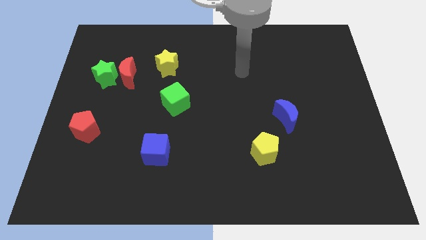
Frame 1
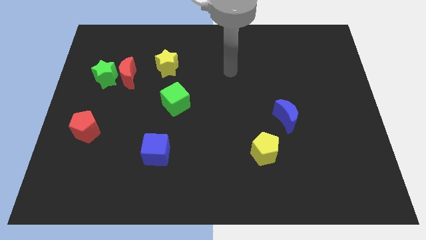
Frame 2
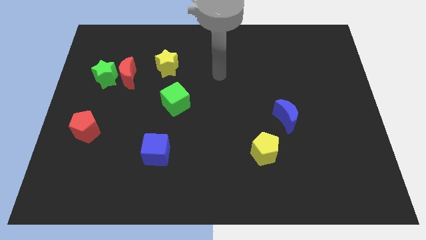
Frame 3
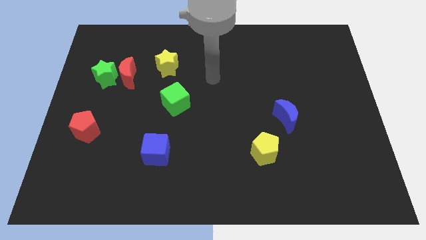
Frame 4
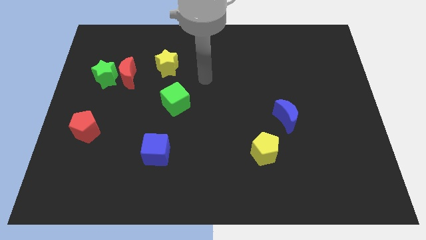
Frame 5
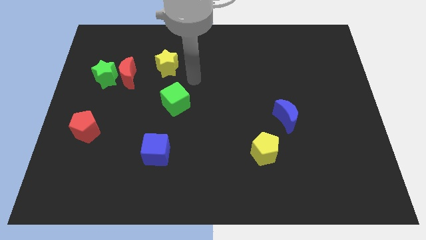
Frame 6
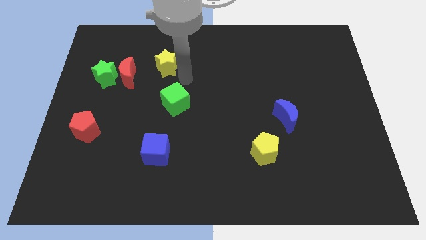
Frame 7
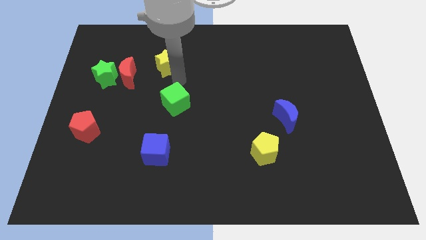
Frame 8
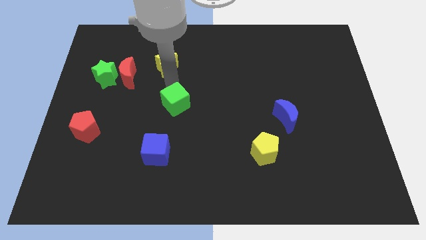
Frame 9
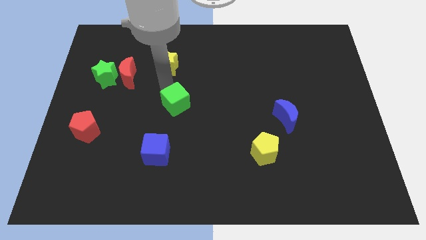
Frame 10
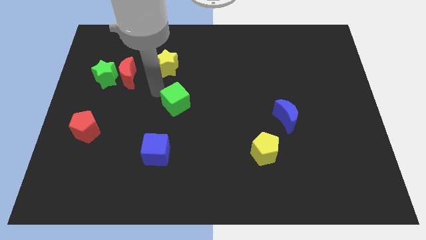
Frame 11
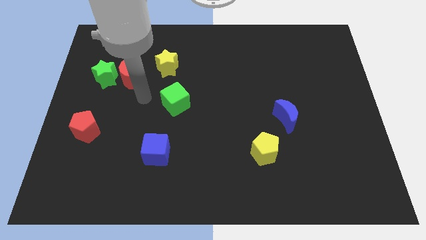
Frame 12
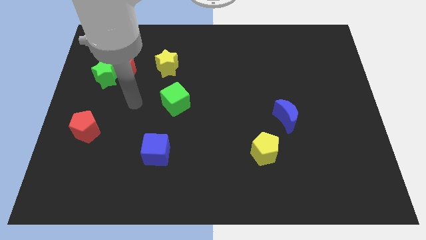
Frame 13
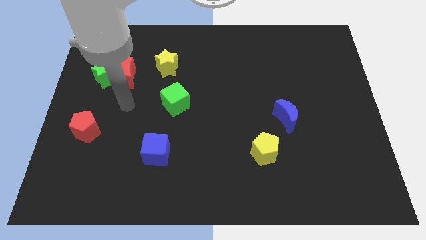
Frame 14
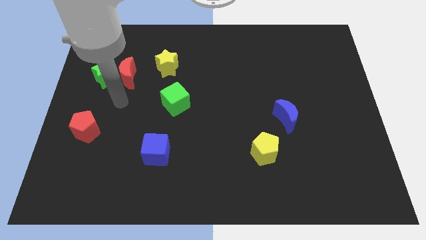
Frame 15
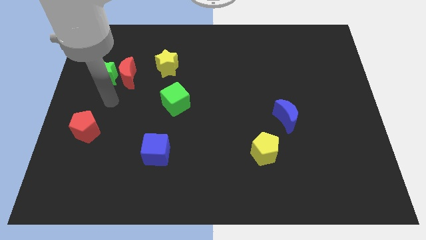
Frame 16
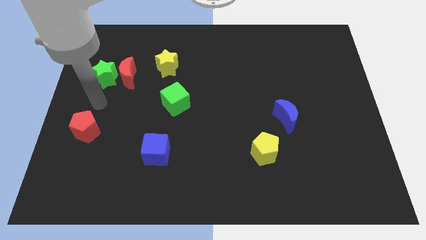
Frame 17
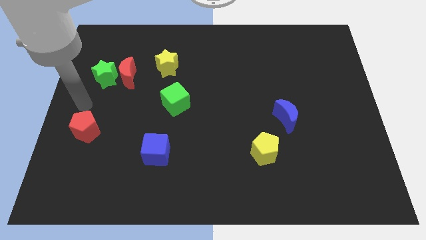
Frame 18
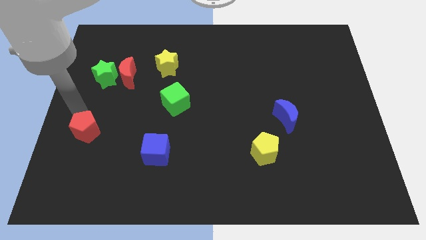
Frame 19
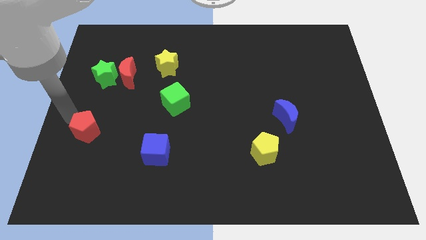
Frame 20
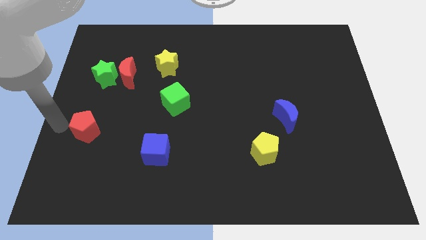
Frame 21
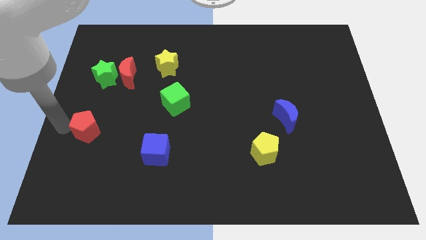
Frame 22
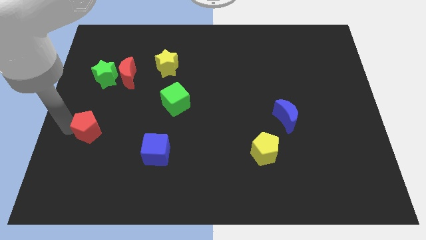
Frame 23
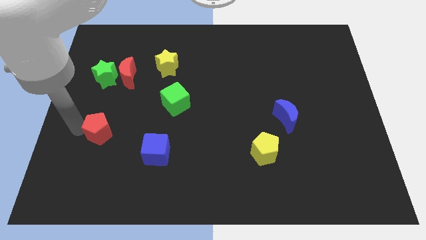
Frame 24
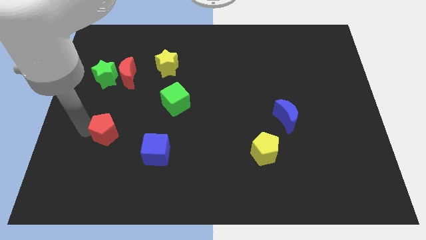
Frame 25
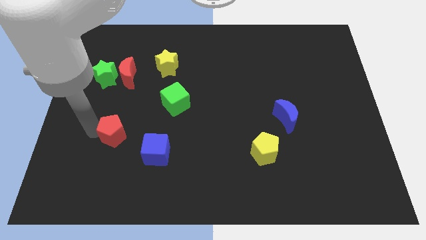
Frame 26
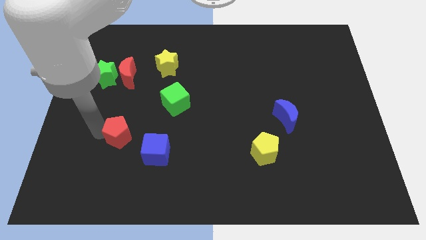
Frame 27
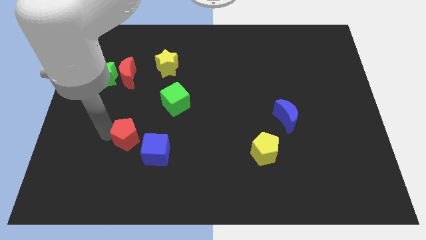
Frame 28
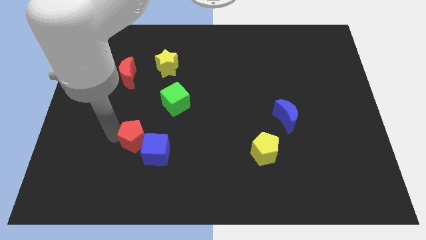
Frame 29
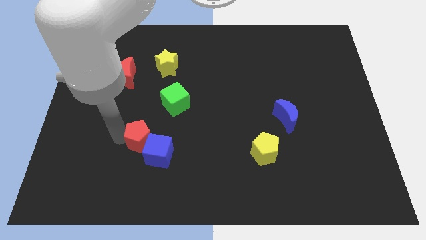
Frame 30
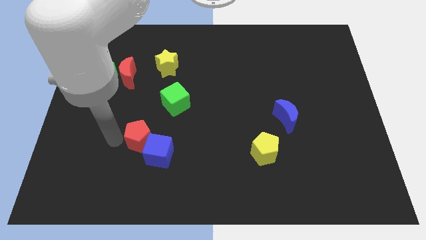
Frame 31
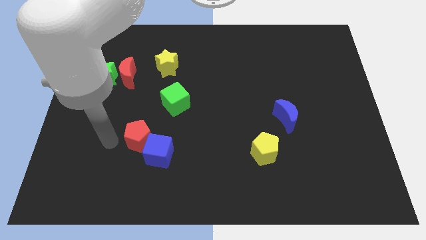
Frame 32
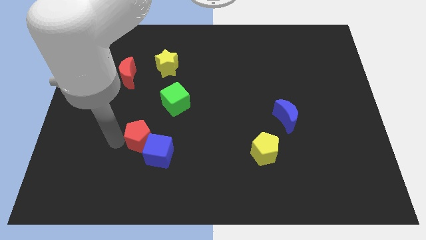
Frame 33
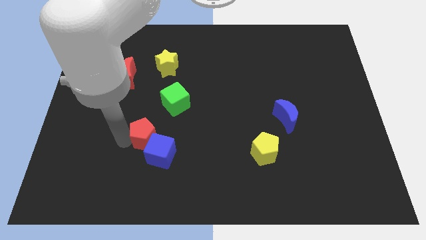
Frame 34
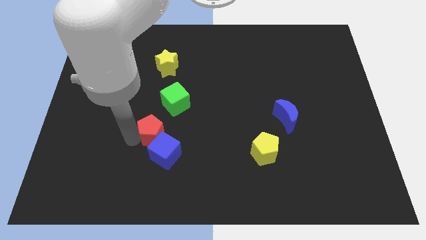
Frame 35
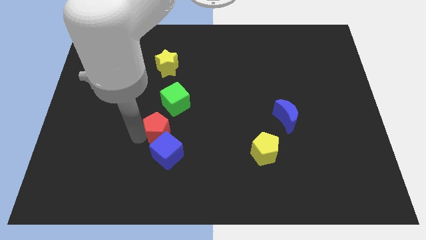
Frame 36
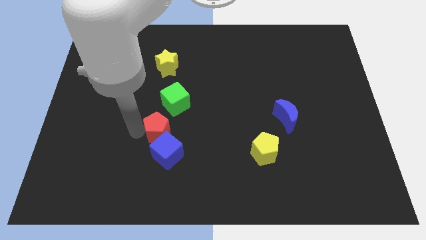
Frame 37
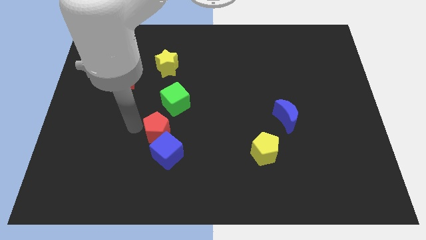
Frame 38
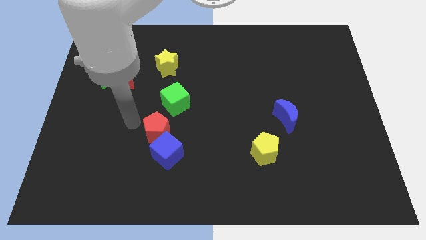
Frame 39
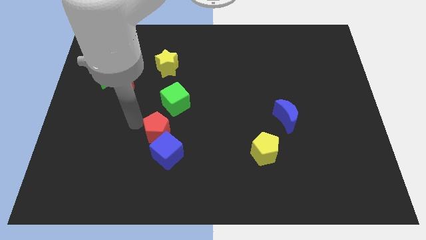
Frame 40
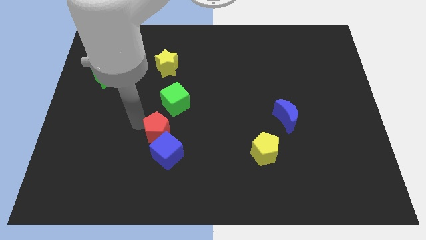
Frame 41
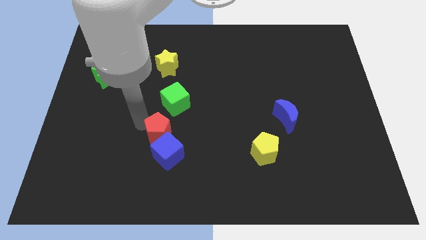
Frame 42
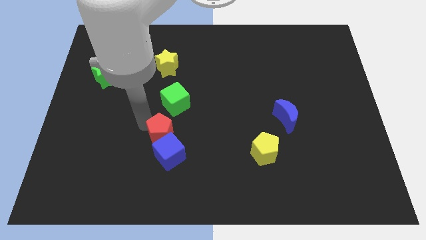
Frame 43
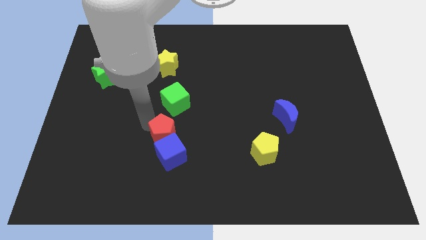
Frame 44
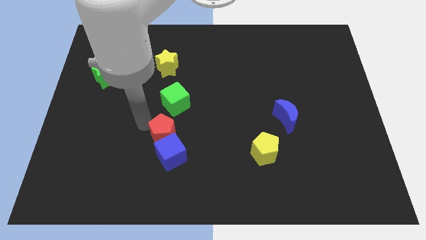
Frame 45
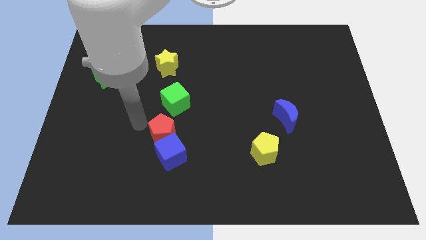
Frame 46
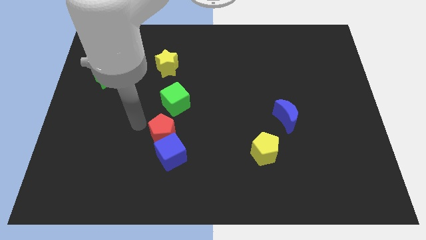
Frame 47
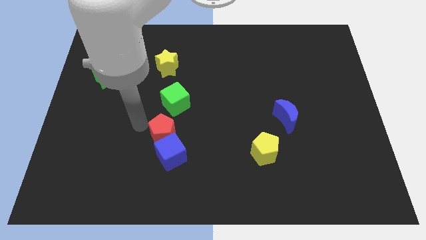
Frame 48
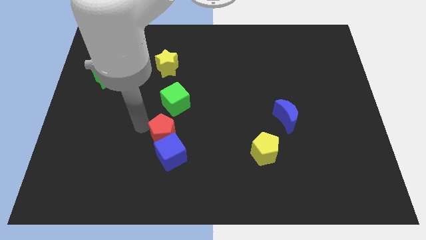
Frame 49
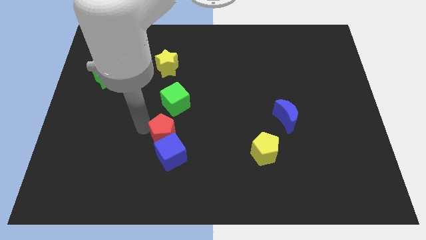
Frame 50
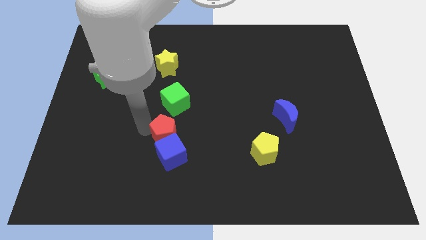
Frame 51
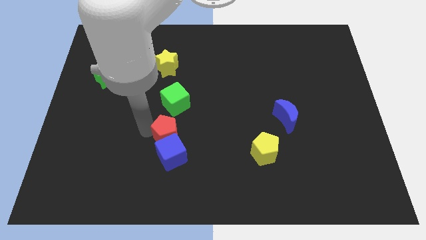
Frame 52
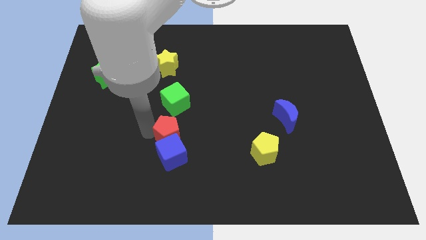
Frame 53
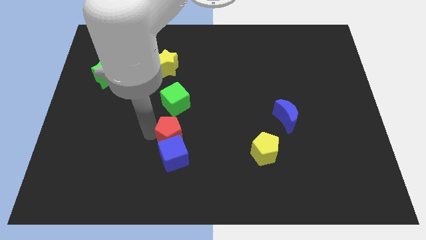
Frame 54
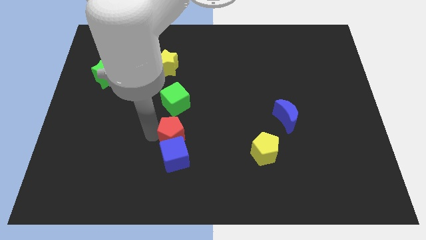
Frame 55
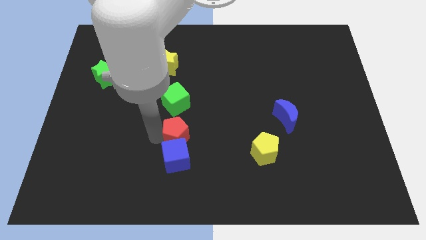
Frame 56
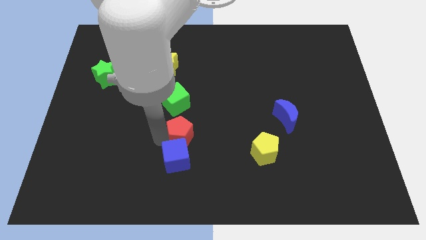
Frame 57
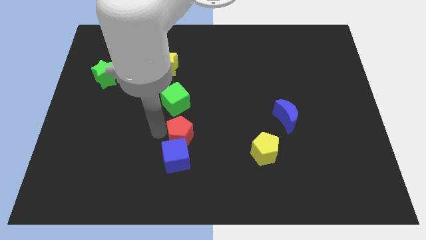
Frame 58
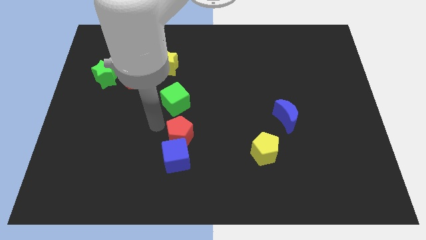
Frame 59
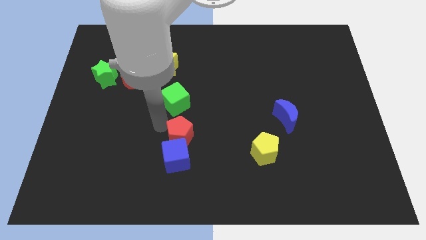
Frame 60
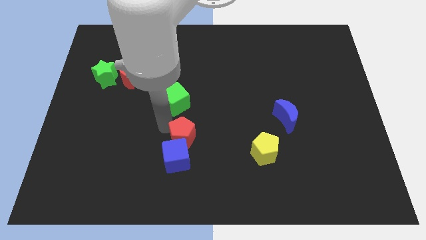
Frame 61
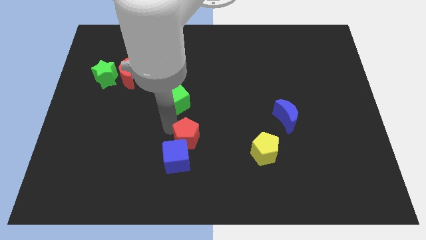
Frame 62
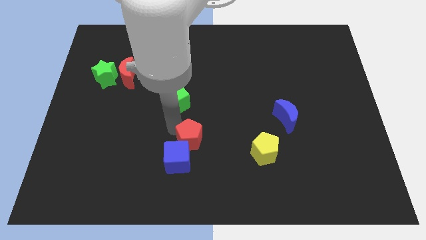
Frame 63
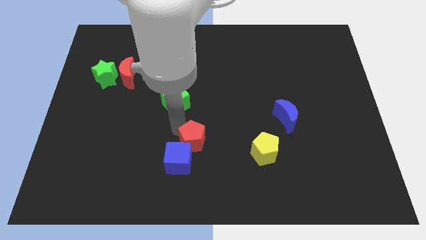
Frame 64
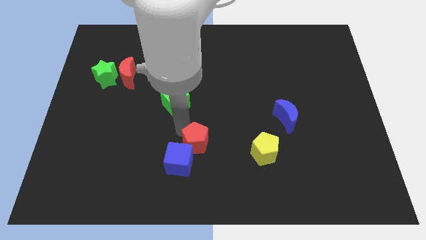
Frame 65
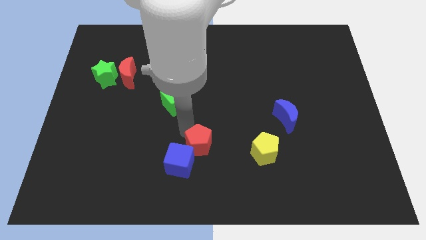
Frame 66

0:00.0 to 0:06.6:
put the red pentagon just right of the blue cube
